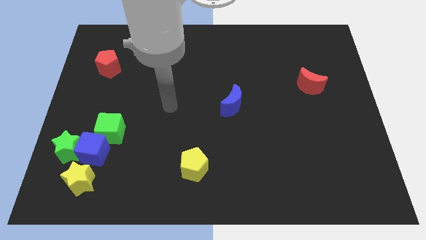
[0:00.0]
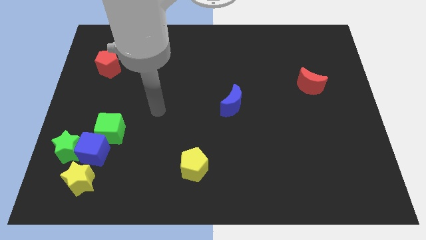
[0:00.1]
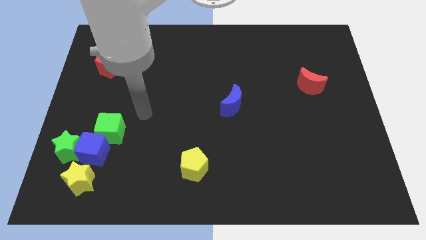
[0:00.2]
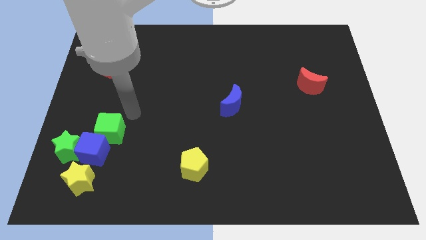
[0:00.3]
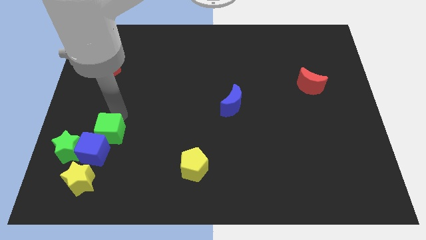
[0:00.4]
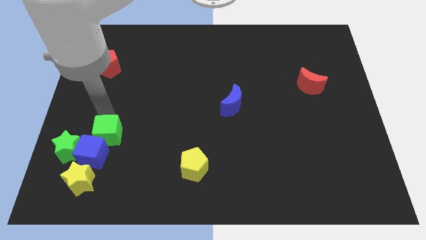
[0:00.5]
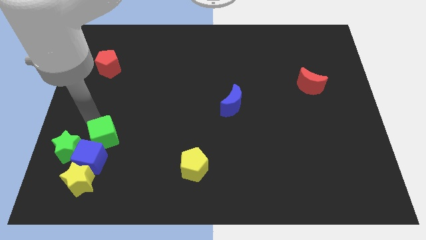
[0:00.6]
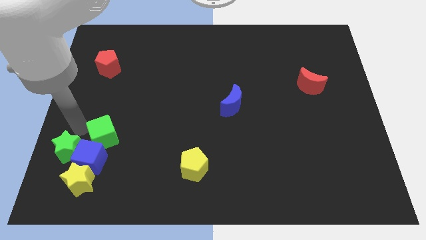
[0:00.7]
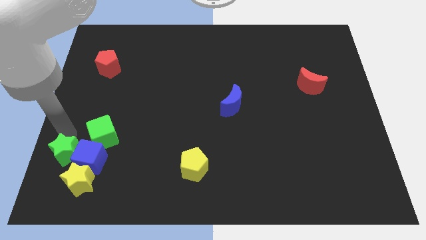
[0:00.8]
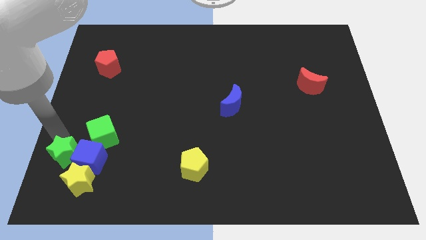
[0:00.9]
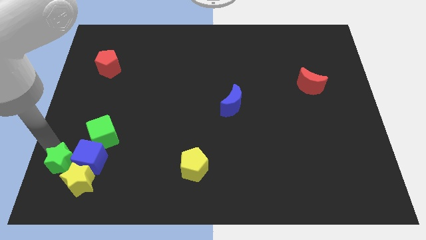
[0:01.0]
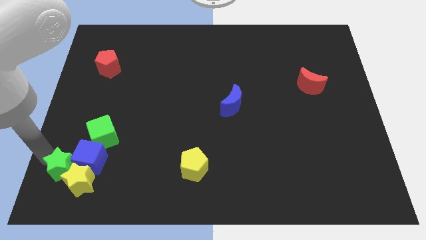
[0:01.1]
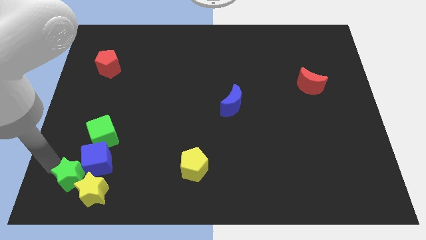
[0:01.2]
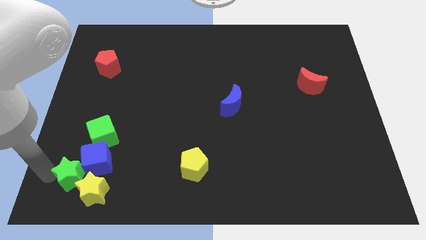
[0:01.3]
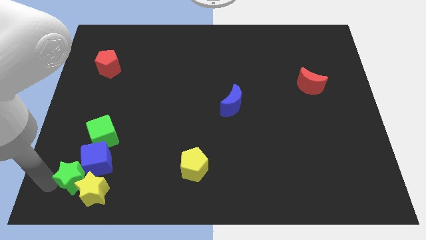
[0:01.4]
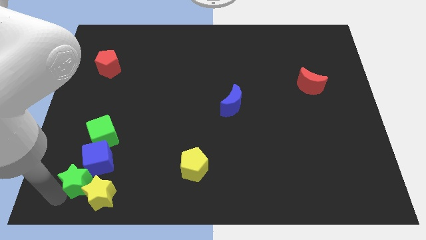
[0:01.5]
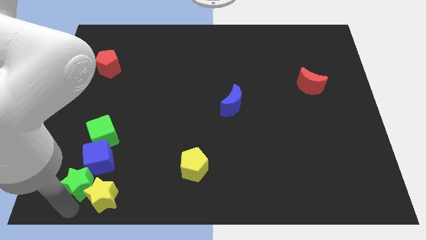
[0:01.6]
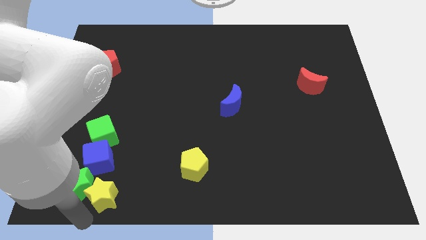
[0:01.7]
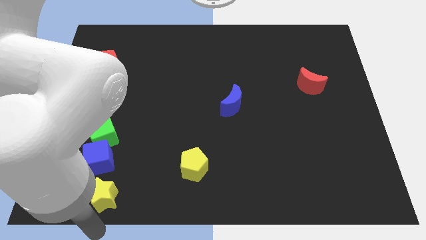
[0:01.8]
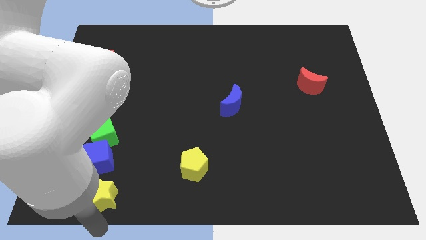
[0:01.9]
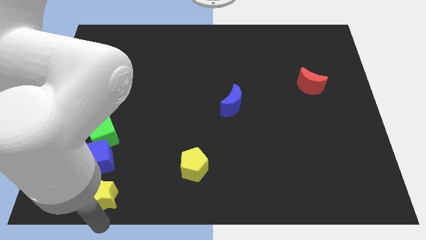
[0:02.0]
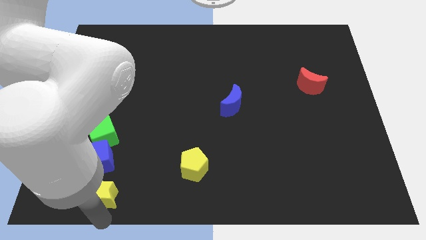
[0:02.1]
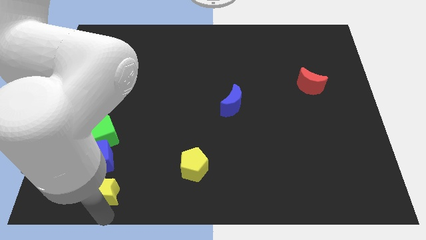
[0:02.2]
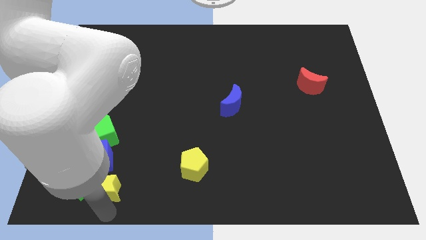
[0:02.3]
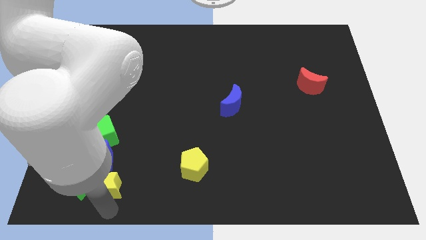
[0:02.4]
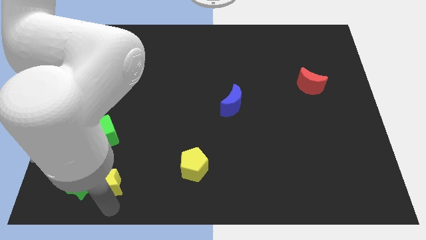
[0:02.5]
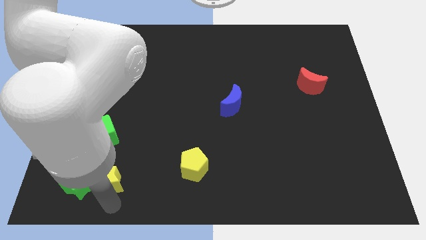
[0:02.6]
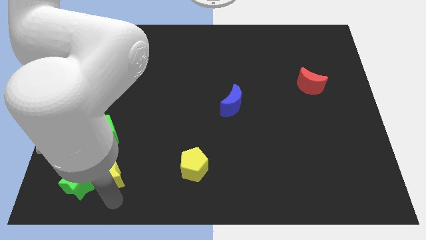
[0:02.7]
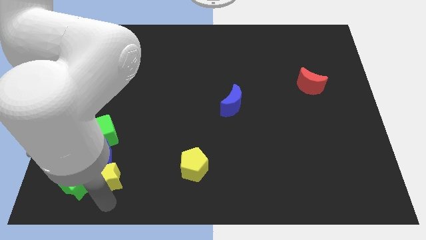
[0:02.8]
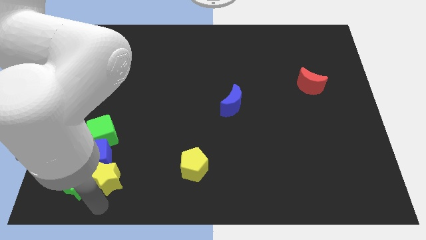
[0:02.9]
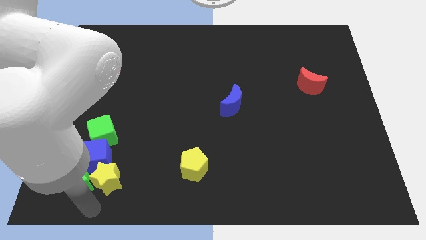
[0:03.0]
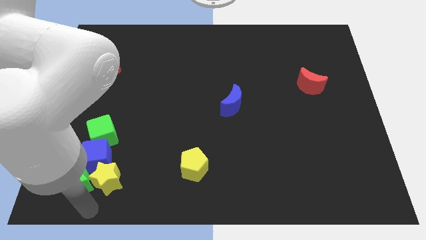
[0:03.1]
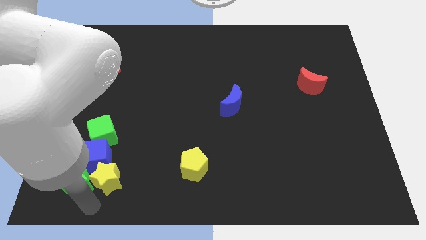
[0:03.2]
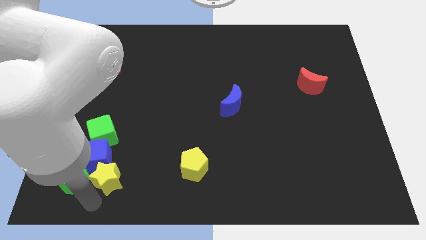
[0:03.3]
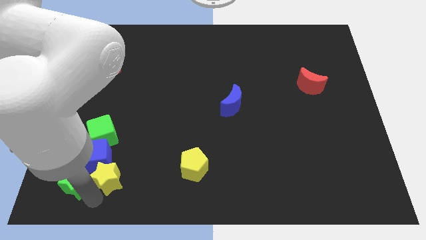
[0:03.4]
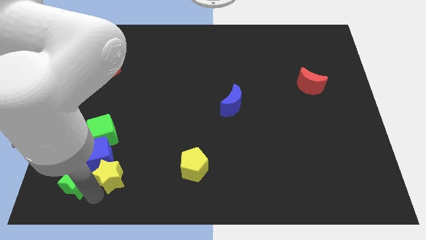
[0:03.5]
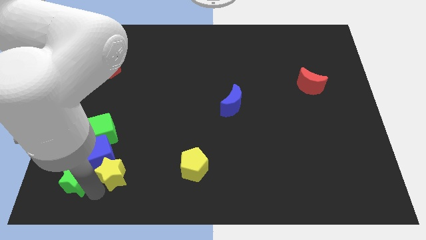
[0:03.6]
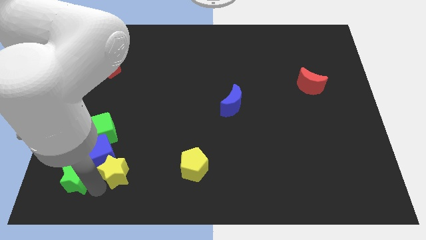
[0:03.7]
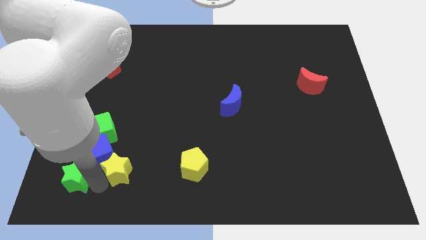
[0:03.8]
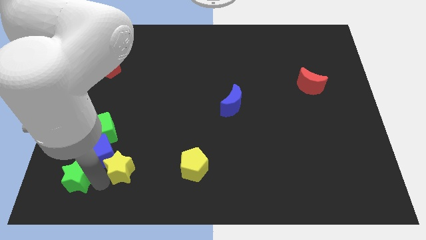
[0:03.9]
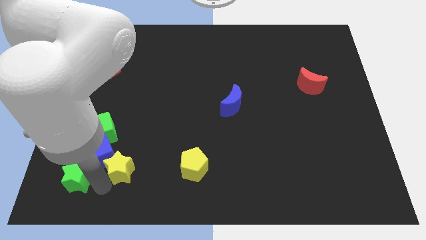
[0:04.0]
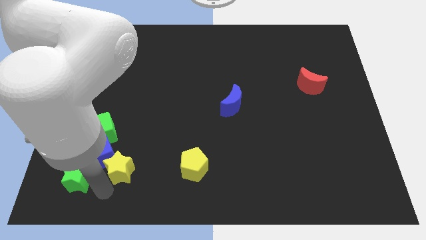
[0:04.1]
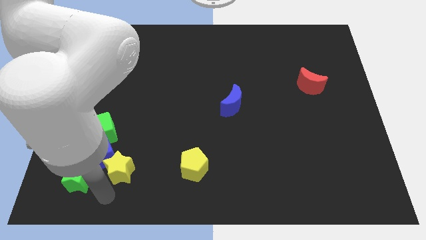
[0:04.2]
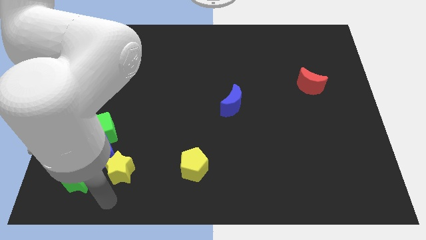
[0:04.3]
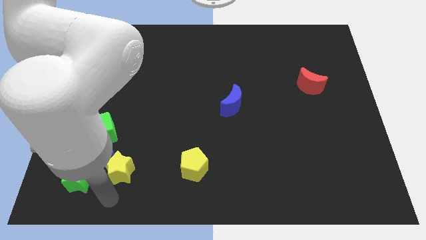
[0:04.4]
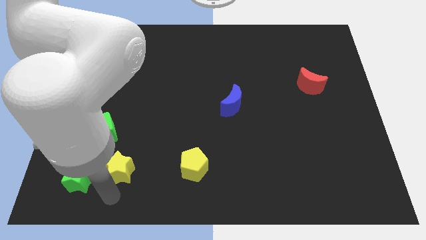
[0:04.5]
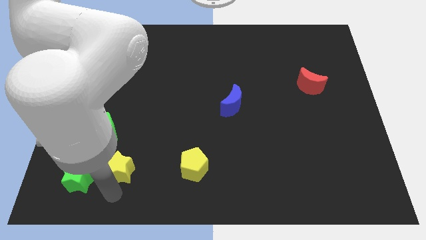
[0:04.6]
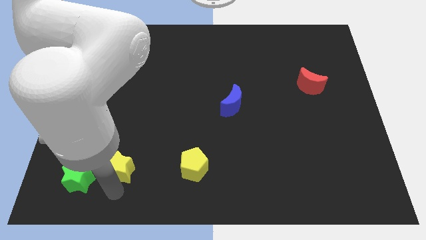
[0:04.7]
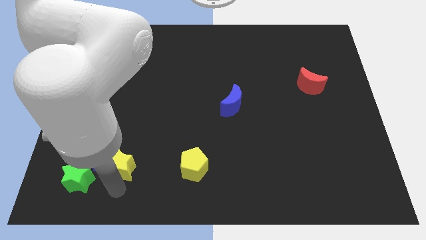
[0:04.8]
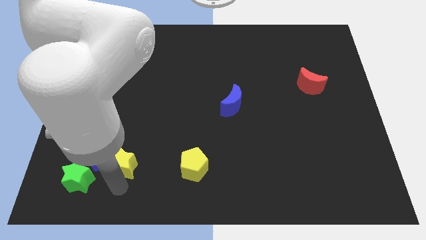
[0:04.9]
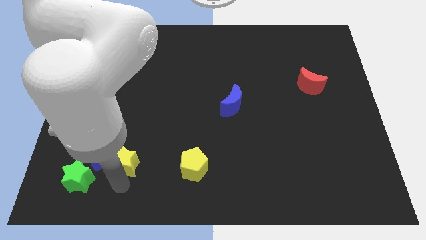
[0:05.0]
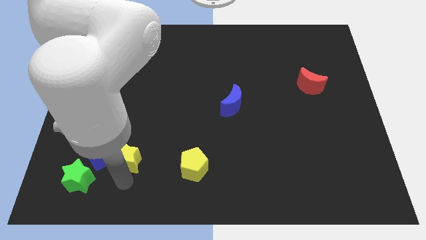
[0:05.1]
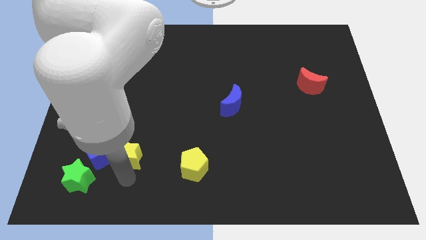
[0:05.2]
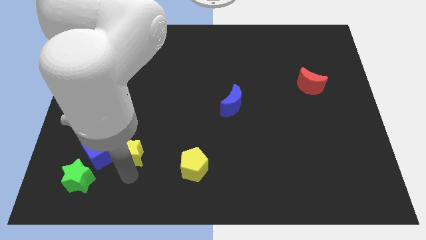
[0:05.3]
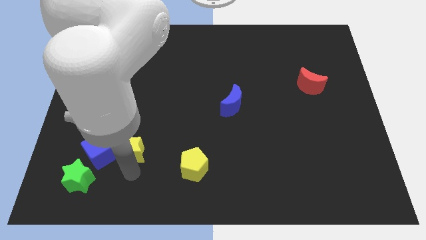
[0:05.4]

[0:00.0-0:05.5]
move the yellow star to the top right of the blue cube

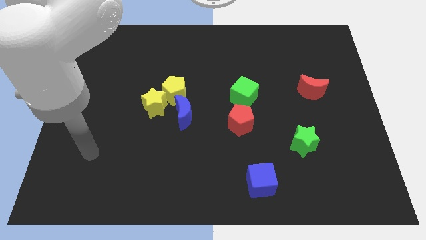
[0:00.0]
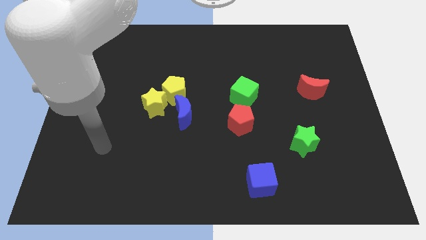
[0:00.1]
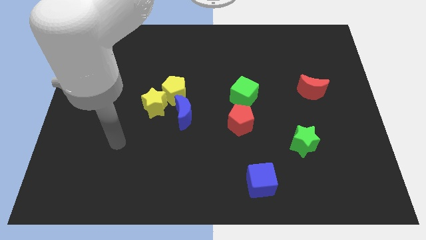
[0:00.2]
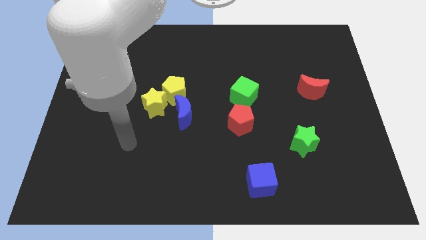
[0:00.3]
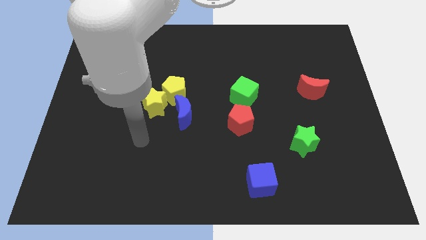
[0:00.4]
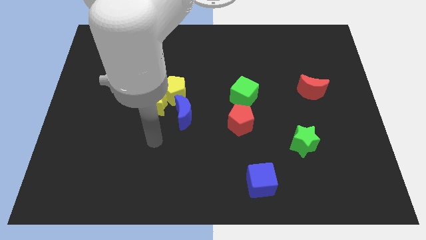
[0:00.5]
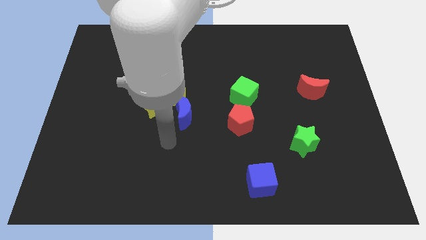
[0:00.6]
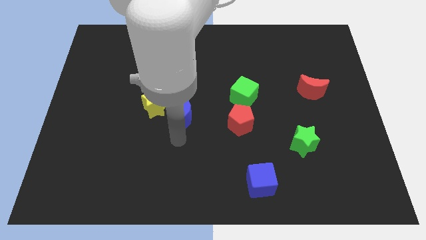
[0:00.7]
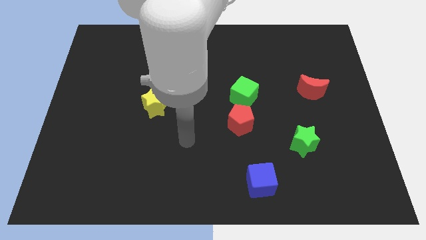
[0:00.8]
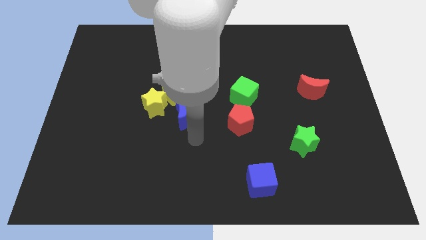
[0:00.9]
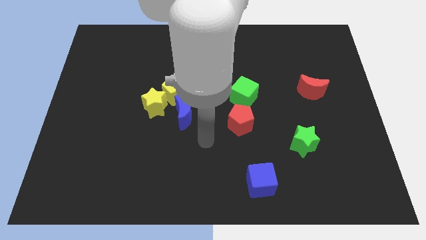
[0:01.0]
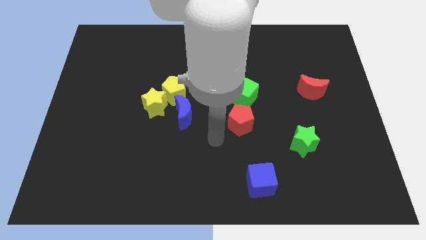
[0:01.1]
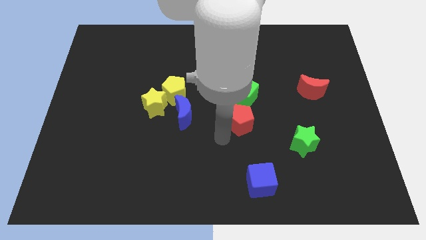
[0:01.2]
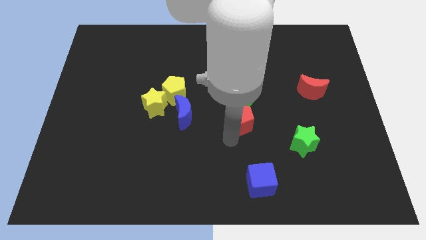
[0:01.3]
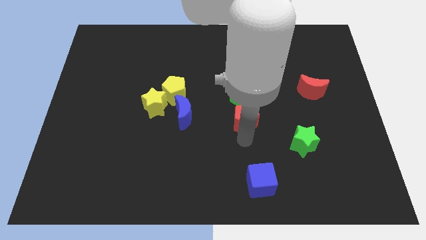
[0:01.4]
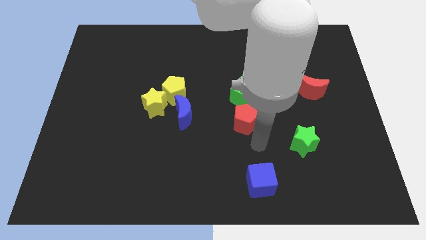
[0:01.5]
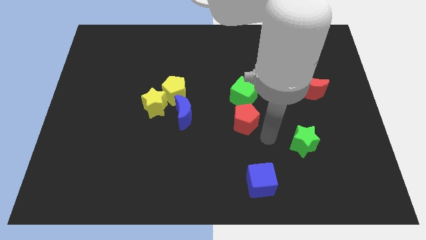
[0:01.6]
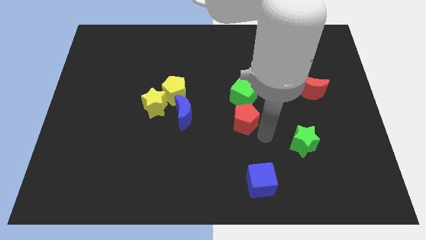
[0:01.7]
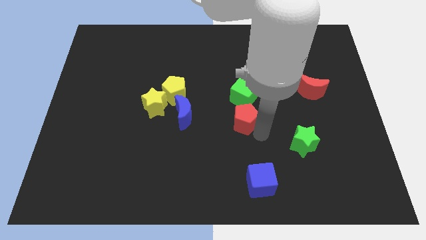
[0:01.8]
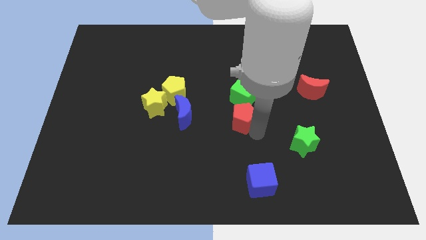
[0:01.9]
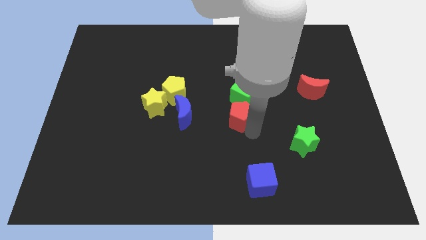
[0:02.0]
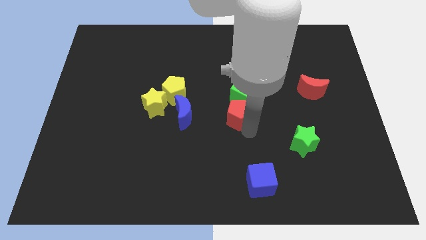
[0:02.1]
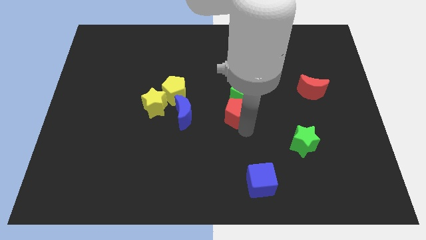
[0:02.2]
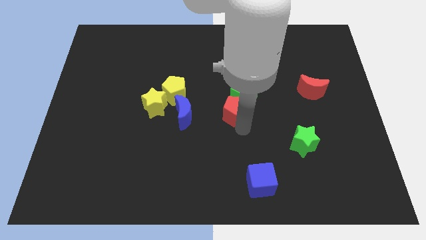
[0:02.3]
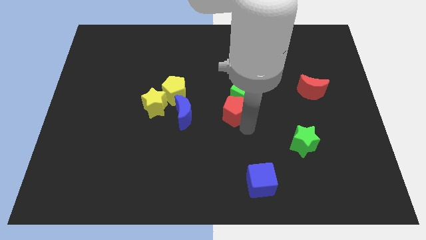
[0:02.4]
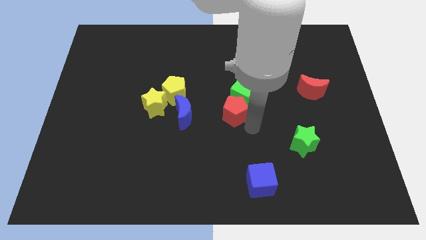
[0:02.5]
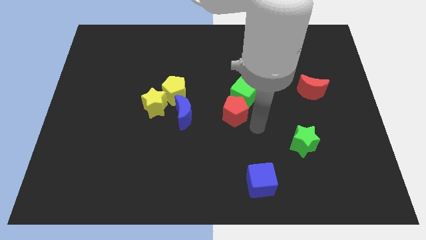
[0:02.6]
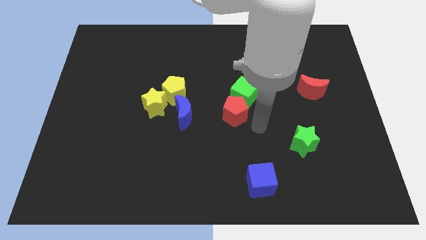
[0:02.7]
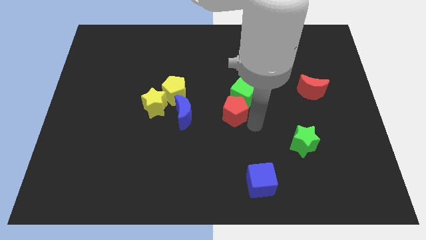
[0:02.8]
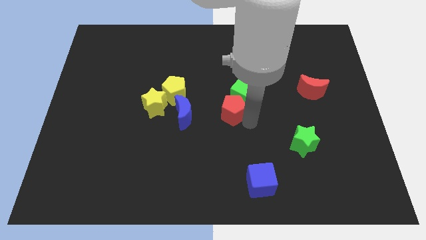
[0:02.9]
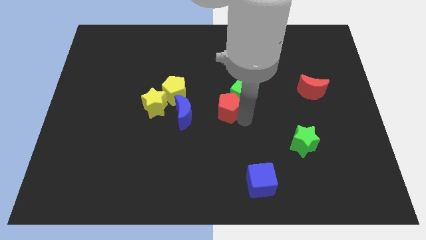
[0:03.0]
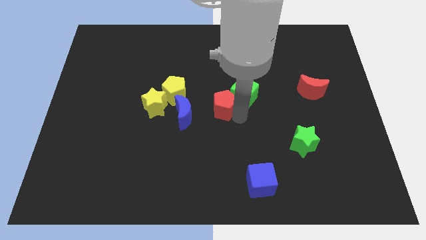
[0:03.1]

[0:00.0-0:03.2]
slide the red pentagon to the right of the yellow pentagon
